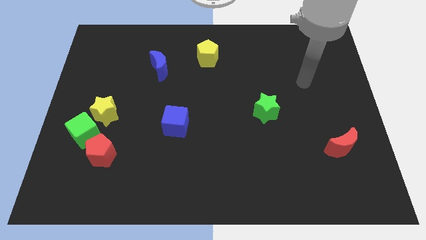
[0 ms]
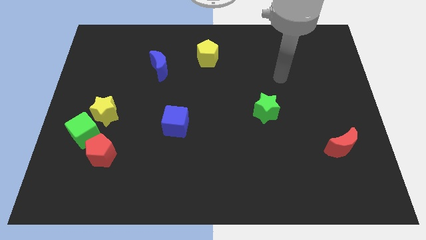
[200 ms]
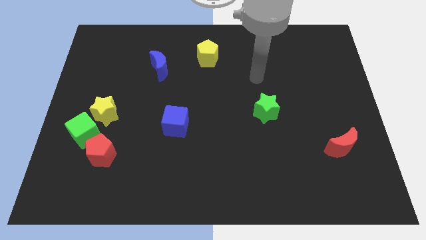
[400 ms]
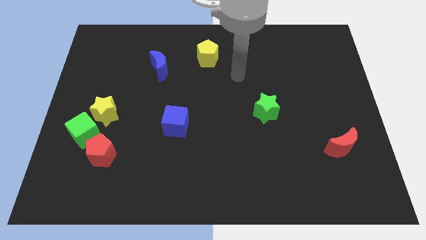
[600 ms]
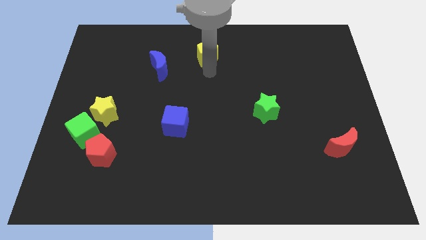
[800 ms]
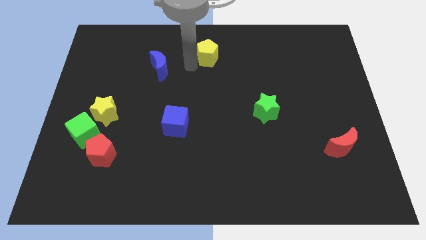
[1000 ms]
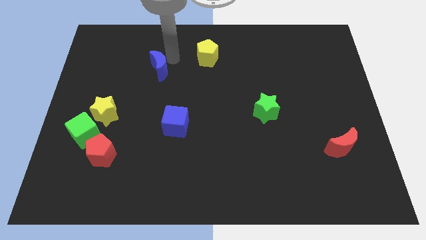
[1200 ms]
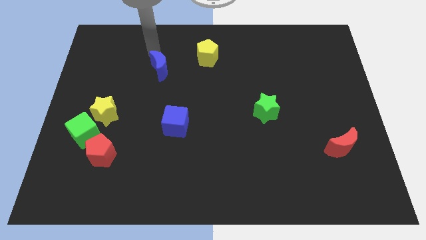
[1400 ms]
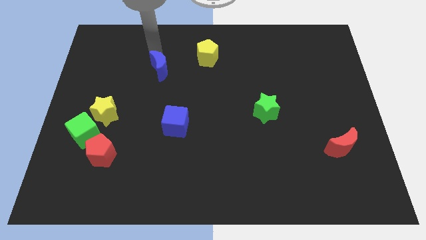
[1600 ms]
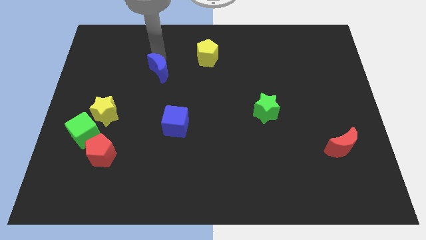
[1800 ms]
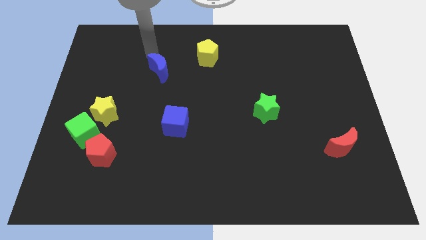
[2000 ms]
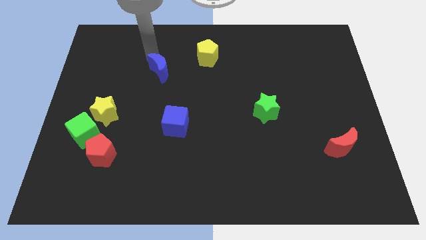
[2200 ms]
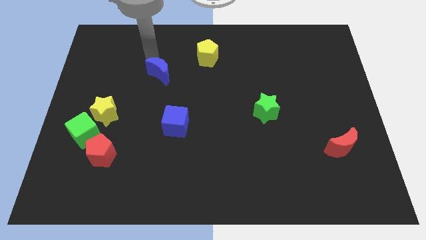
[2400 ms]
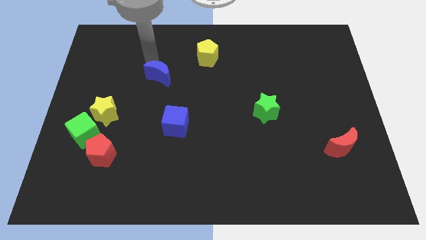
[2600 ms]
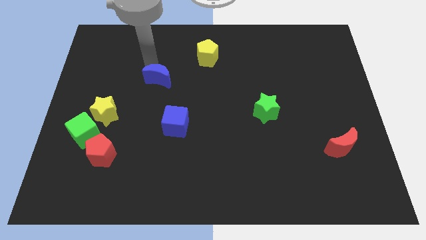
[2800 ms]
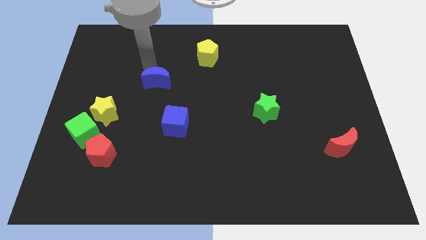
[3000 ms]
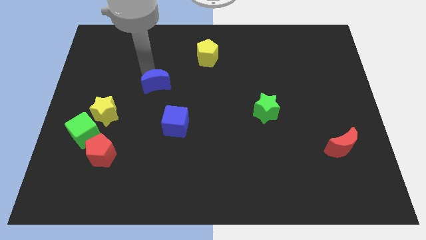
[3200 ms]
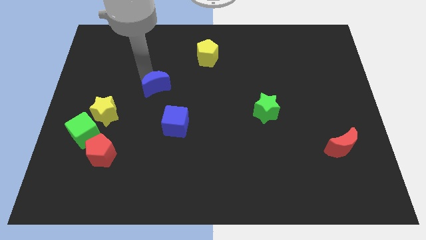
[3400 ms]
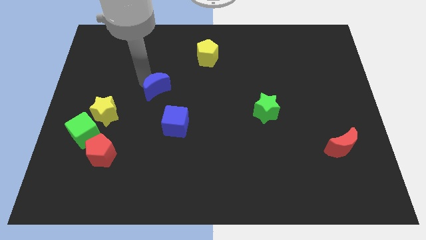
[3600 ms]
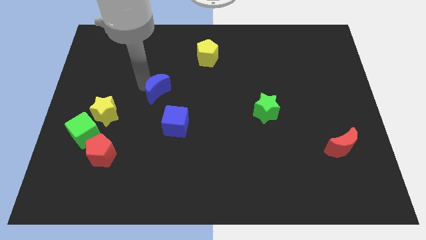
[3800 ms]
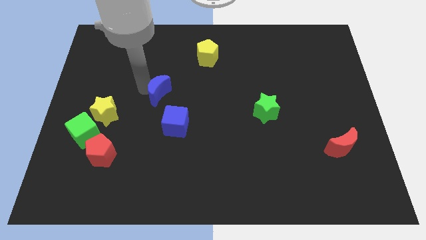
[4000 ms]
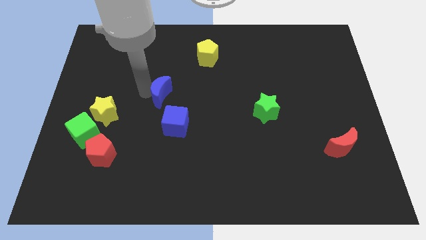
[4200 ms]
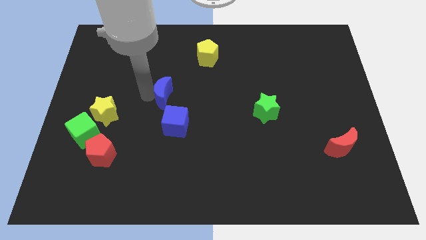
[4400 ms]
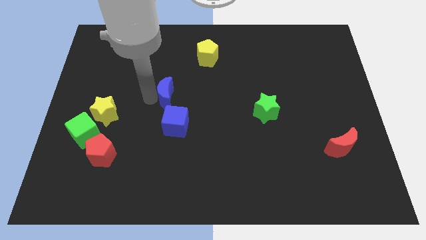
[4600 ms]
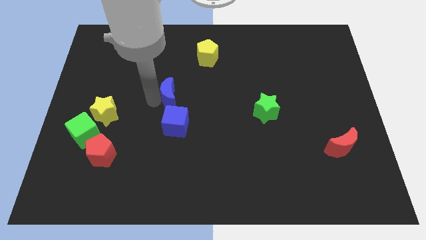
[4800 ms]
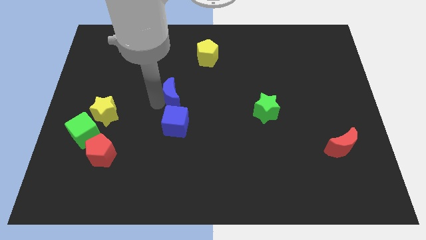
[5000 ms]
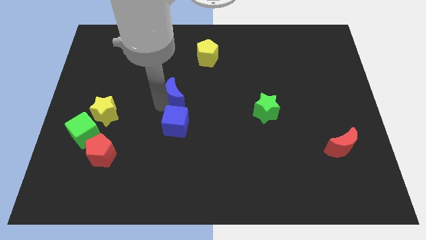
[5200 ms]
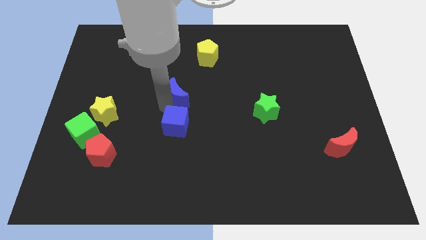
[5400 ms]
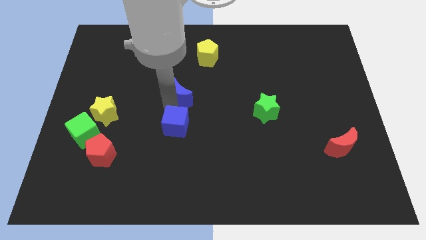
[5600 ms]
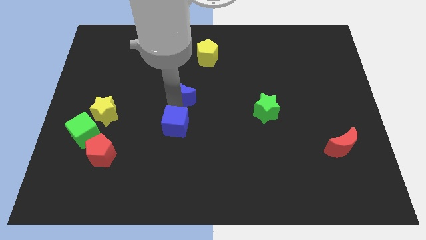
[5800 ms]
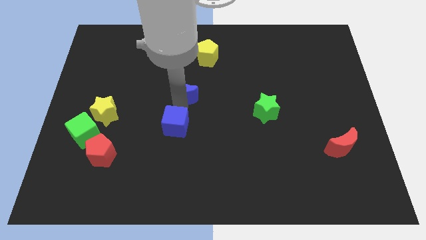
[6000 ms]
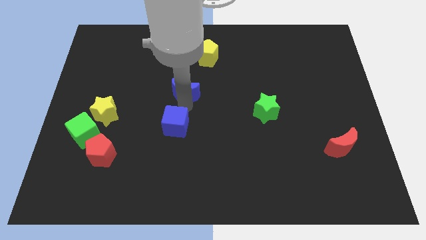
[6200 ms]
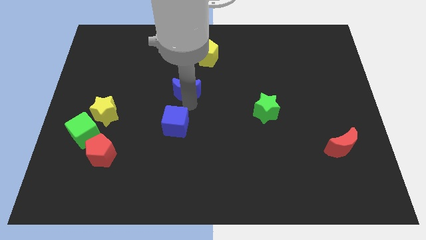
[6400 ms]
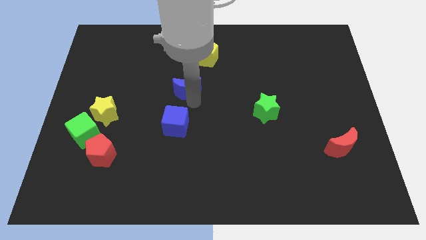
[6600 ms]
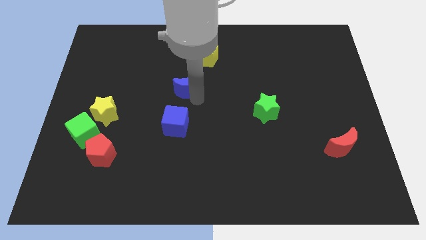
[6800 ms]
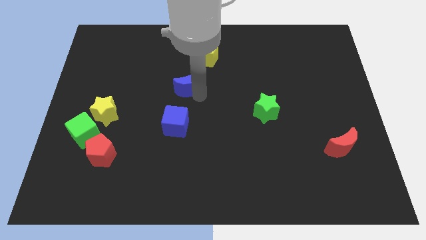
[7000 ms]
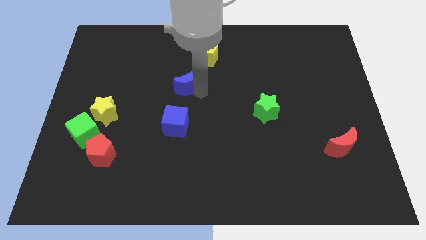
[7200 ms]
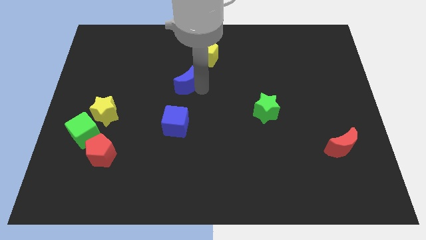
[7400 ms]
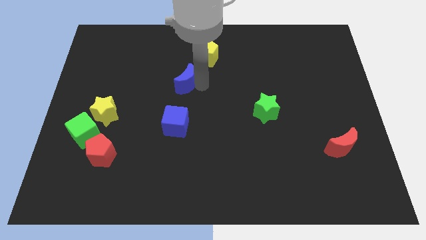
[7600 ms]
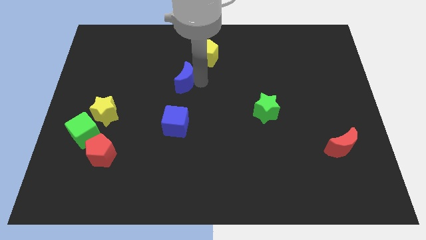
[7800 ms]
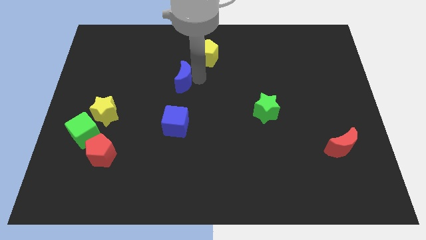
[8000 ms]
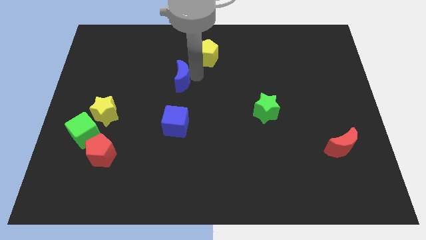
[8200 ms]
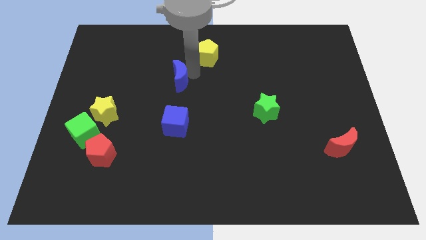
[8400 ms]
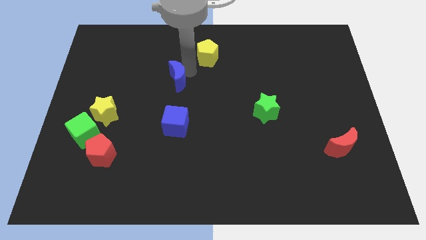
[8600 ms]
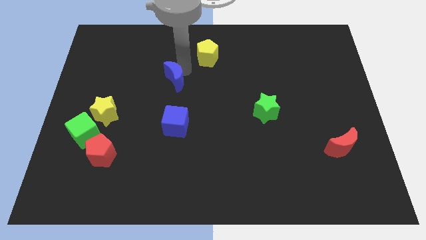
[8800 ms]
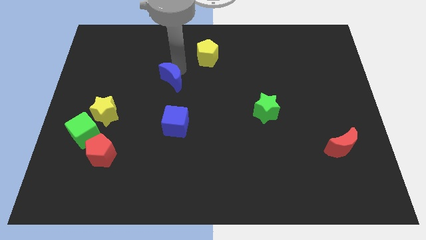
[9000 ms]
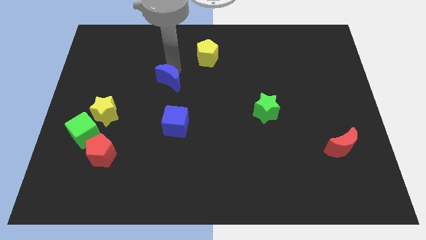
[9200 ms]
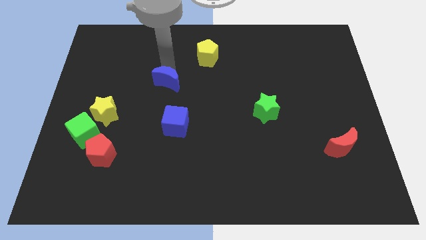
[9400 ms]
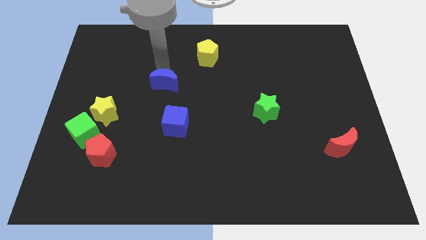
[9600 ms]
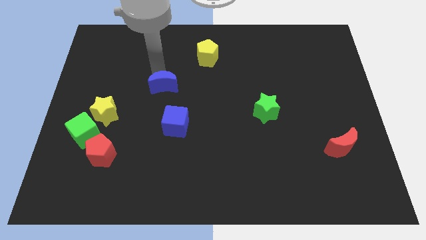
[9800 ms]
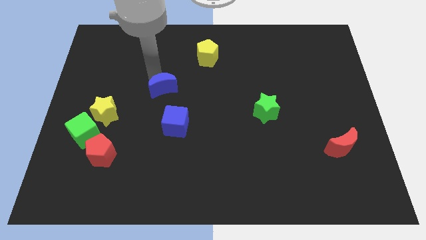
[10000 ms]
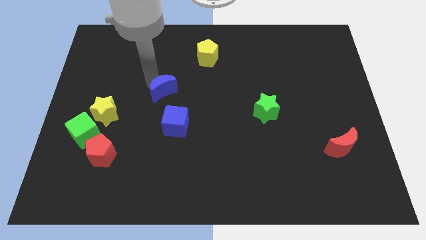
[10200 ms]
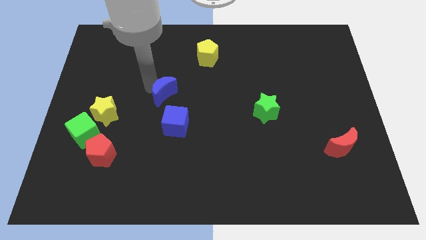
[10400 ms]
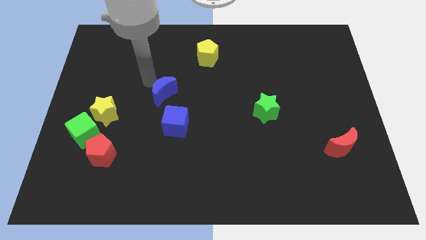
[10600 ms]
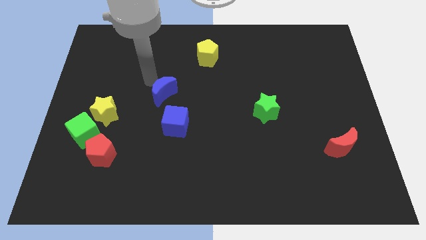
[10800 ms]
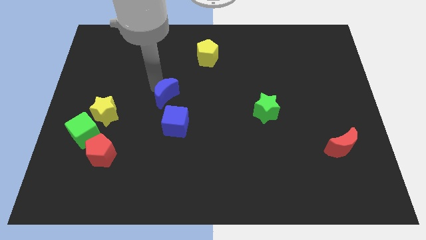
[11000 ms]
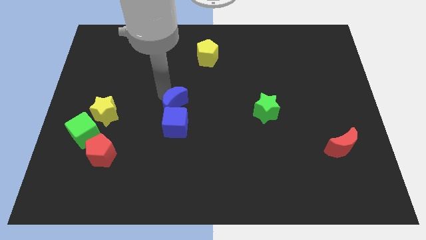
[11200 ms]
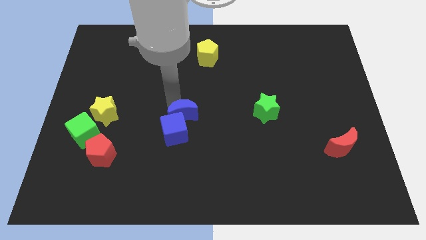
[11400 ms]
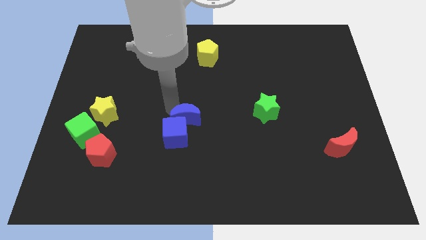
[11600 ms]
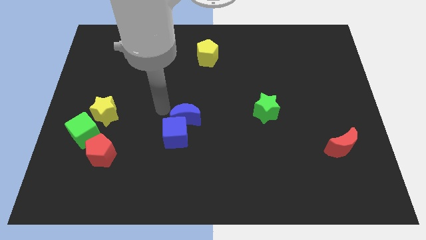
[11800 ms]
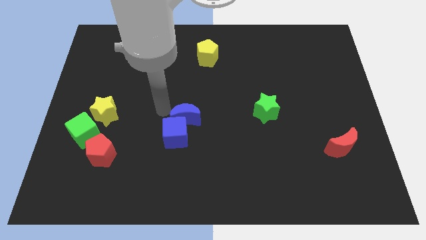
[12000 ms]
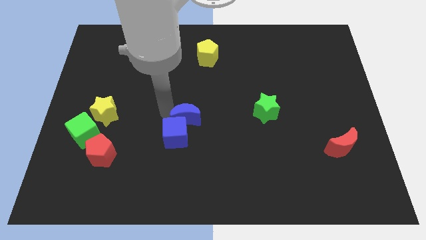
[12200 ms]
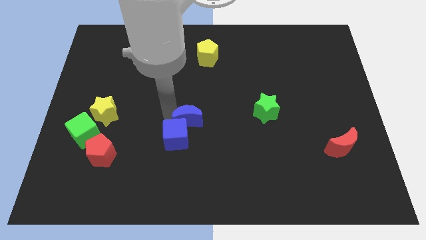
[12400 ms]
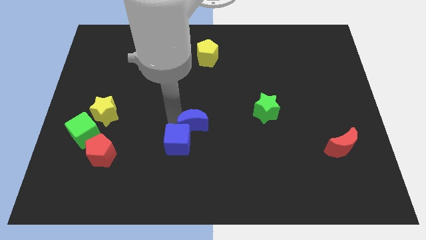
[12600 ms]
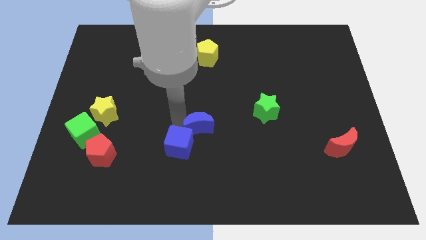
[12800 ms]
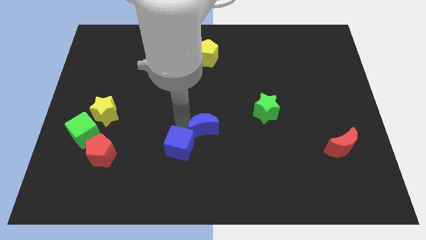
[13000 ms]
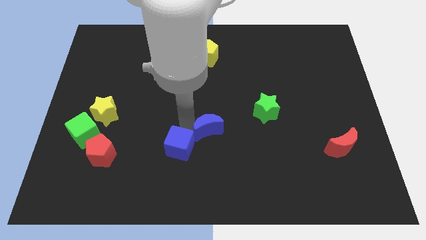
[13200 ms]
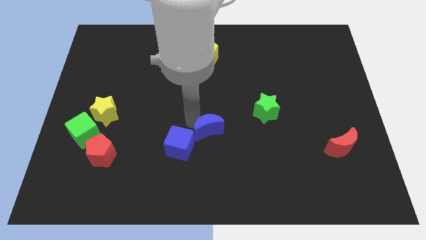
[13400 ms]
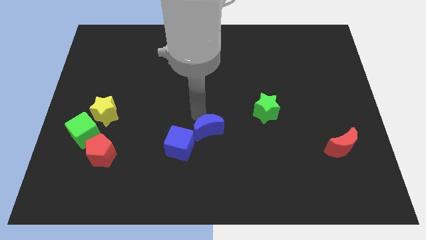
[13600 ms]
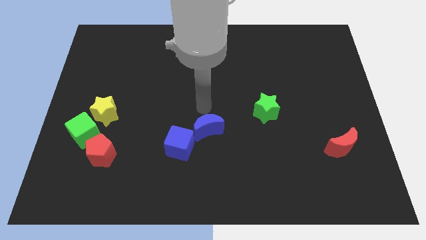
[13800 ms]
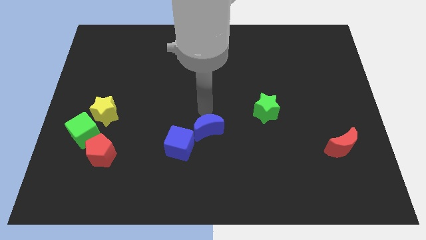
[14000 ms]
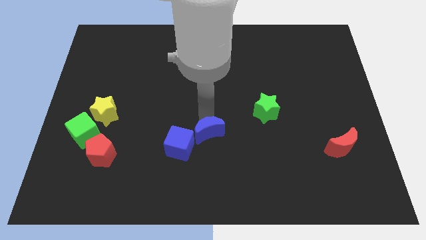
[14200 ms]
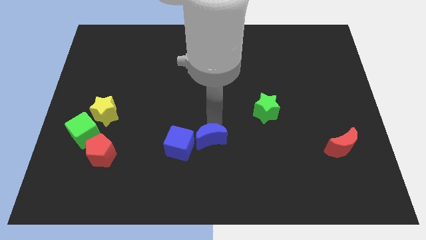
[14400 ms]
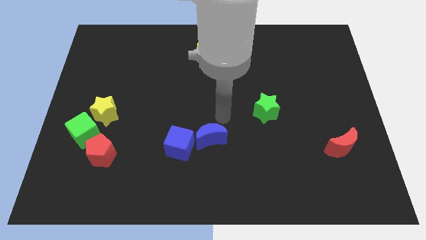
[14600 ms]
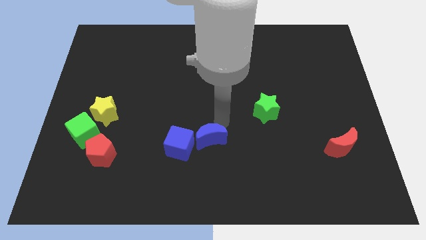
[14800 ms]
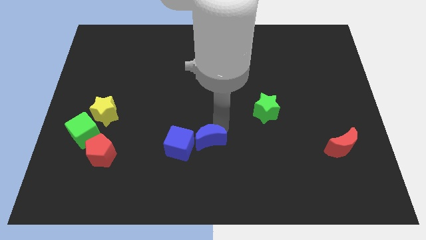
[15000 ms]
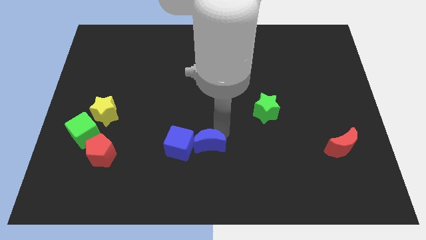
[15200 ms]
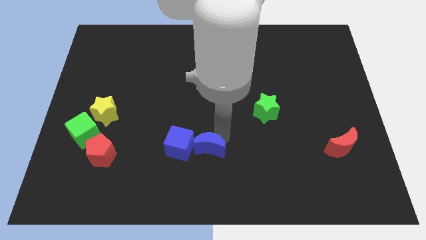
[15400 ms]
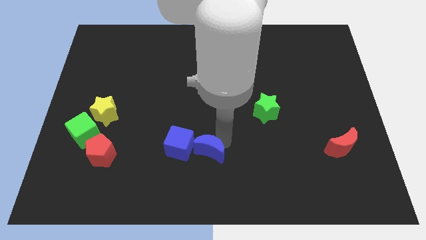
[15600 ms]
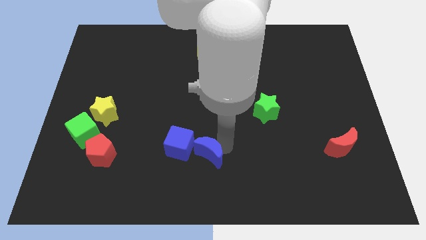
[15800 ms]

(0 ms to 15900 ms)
move the blue moon to the bottom
